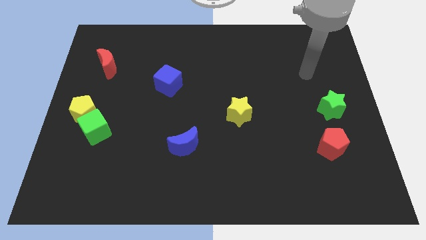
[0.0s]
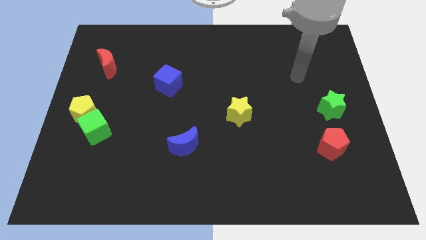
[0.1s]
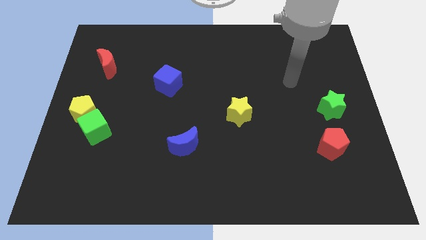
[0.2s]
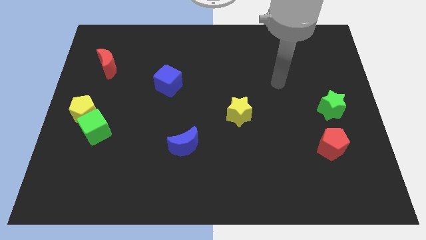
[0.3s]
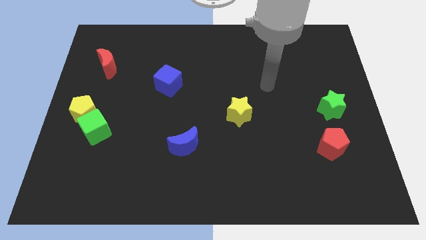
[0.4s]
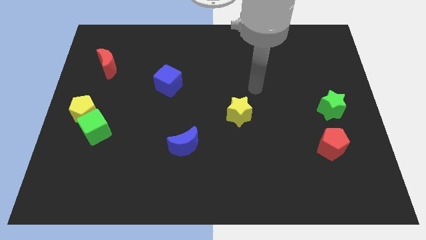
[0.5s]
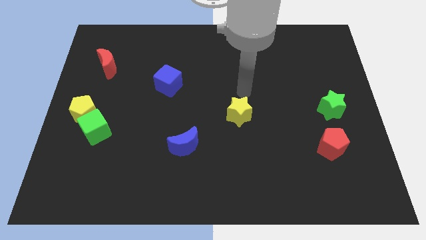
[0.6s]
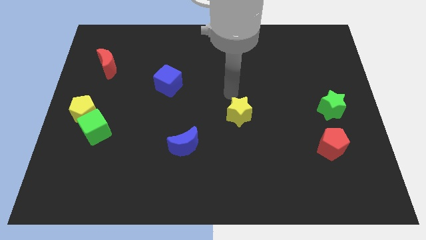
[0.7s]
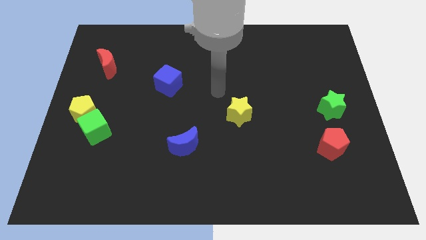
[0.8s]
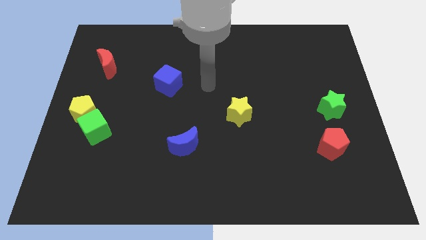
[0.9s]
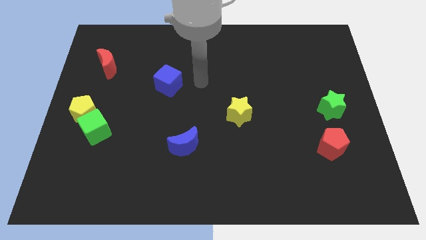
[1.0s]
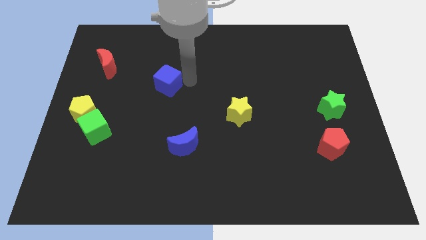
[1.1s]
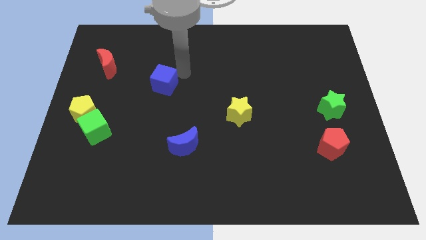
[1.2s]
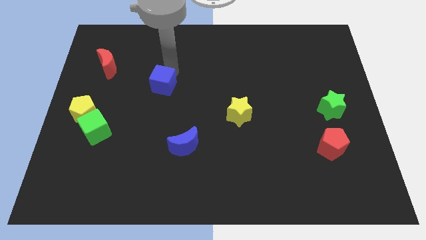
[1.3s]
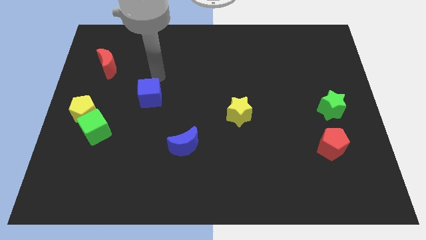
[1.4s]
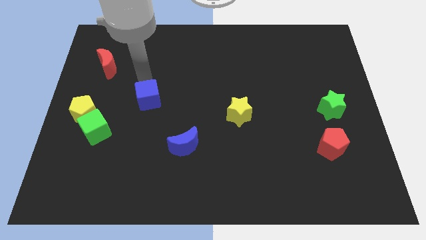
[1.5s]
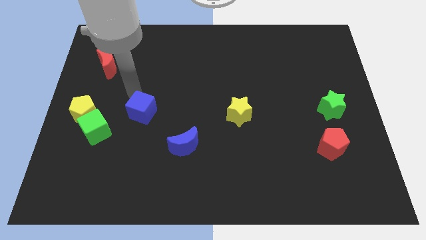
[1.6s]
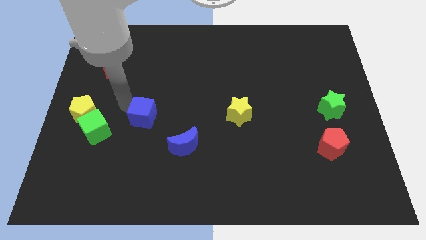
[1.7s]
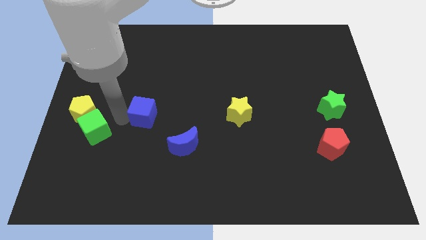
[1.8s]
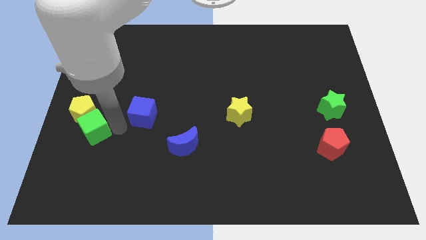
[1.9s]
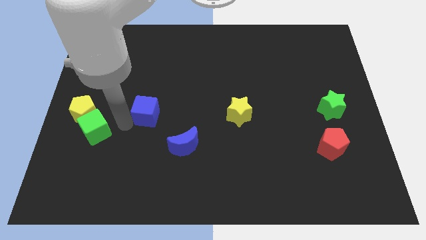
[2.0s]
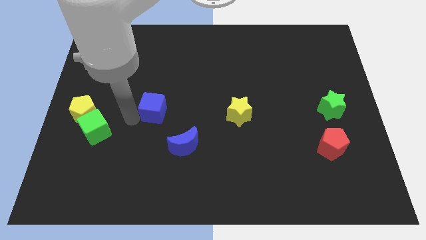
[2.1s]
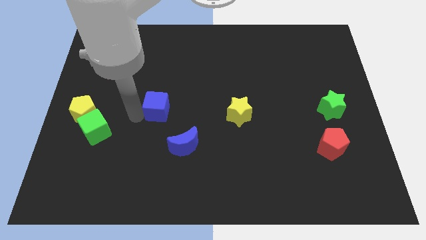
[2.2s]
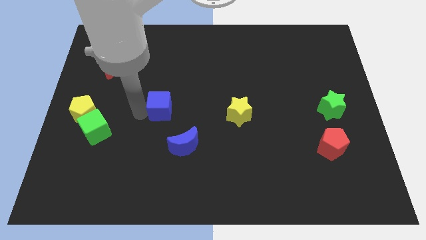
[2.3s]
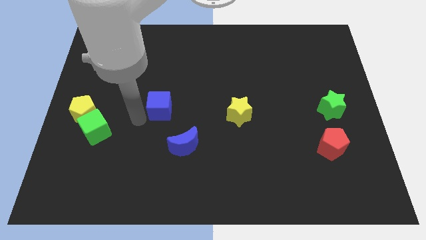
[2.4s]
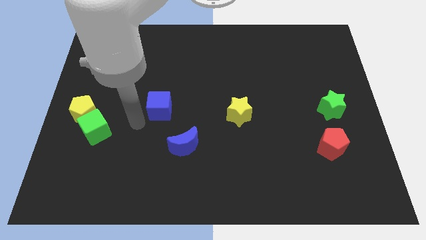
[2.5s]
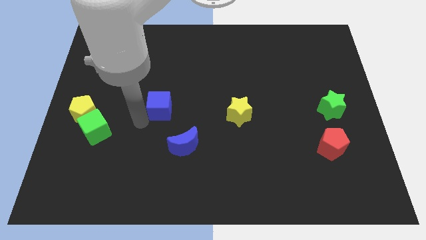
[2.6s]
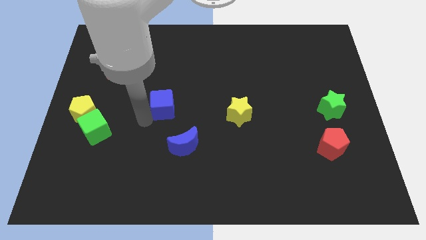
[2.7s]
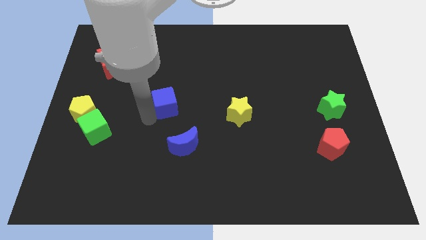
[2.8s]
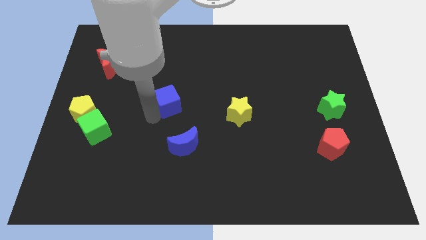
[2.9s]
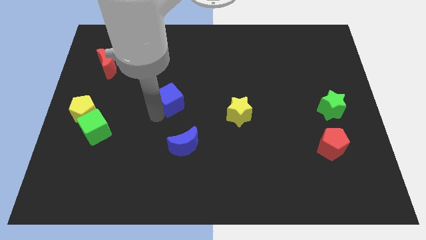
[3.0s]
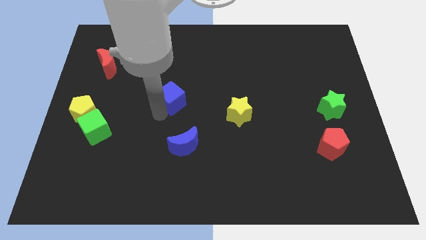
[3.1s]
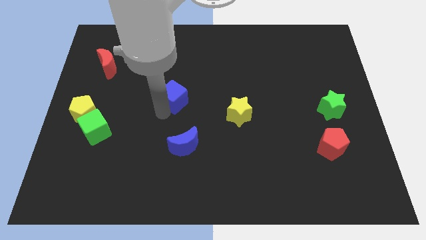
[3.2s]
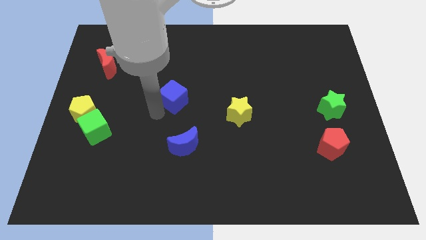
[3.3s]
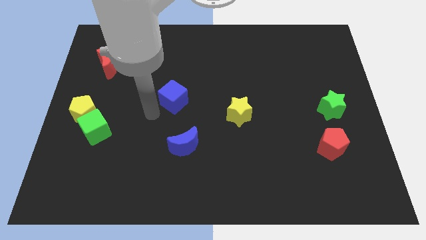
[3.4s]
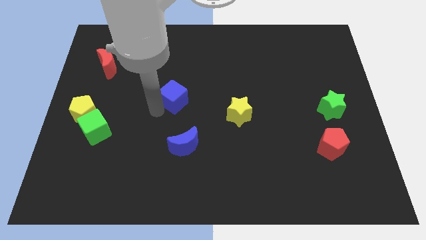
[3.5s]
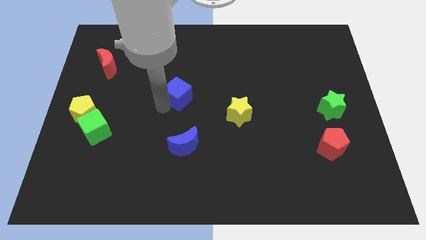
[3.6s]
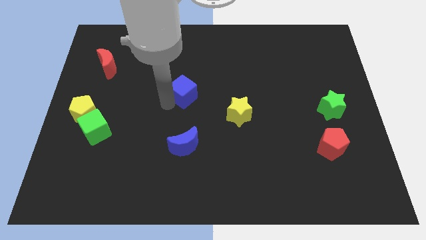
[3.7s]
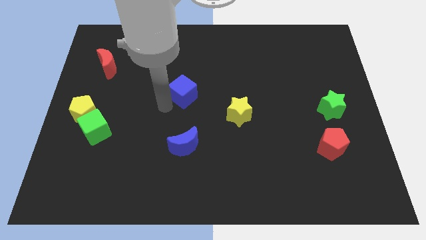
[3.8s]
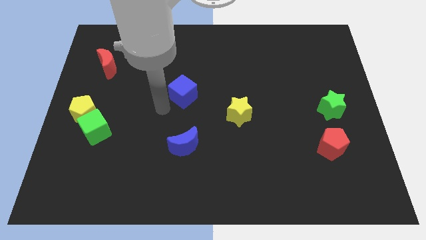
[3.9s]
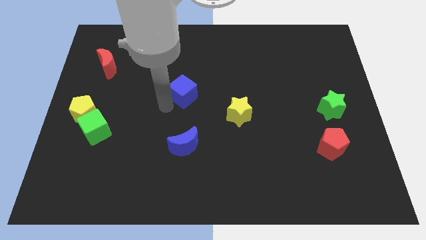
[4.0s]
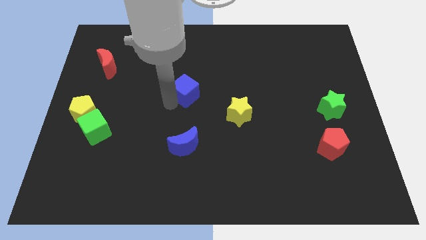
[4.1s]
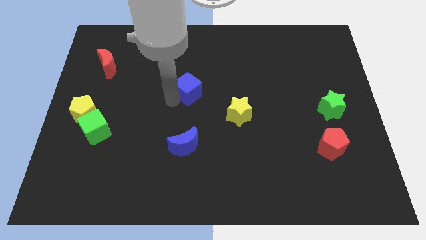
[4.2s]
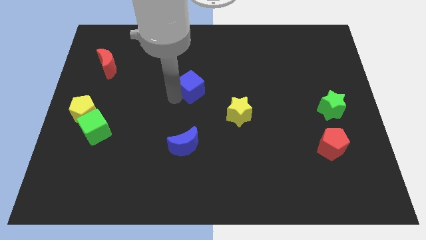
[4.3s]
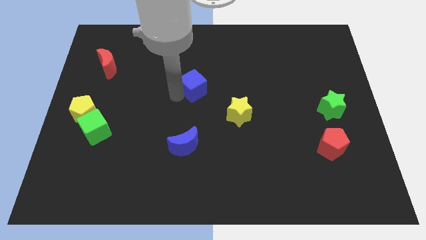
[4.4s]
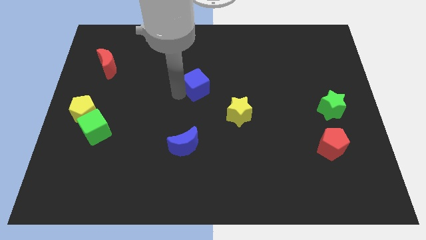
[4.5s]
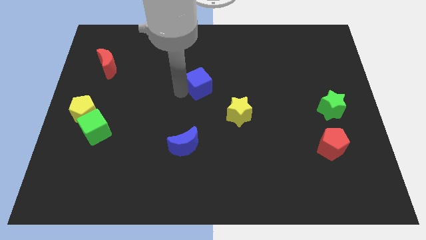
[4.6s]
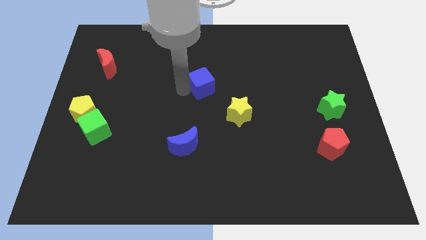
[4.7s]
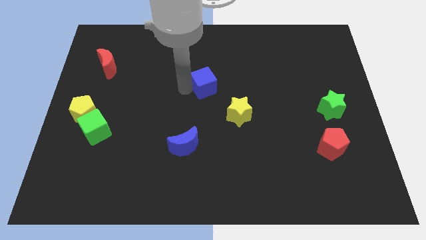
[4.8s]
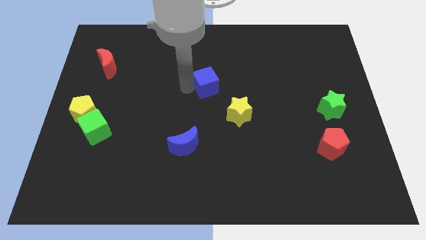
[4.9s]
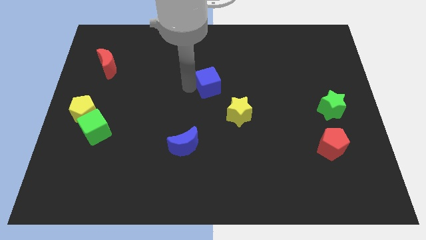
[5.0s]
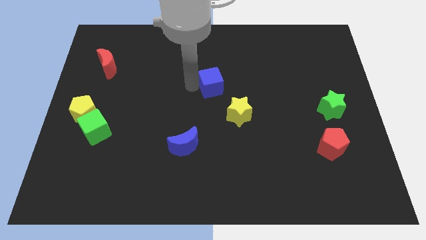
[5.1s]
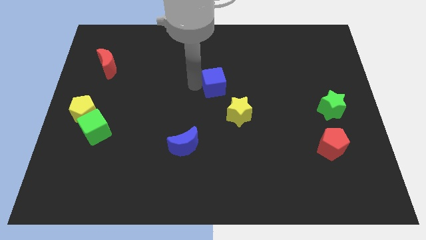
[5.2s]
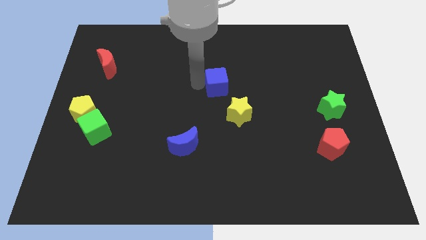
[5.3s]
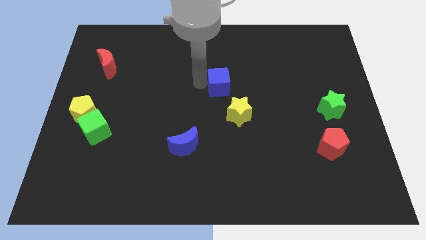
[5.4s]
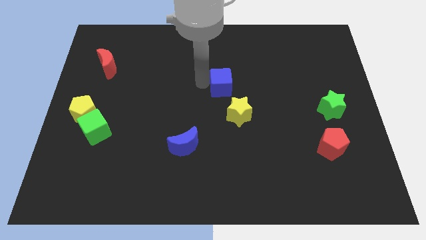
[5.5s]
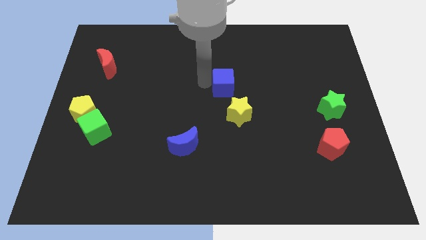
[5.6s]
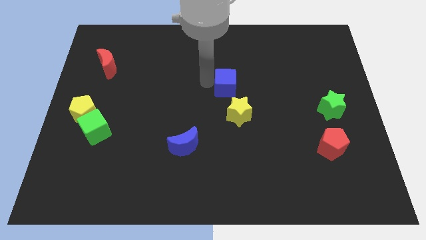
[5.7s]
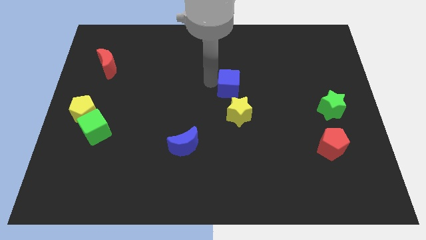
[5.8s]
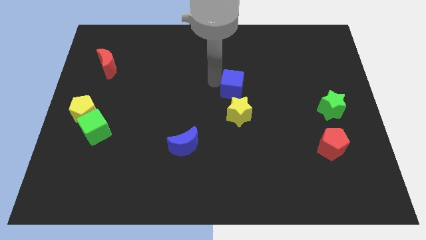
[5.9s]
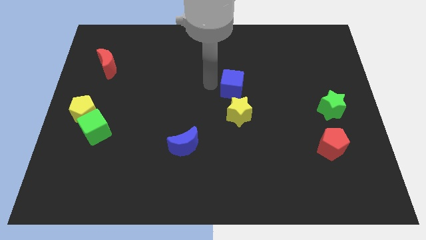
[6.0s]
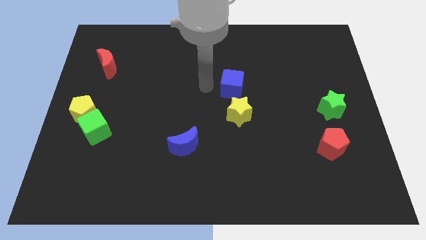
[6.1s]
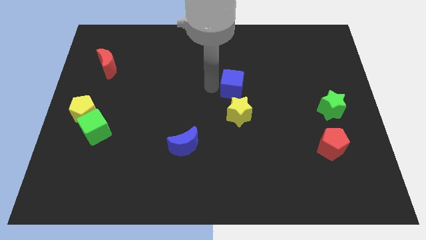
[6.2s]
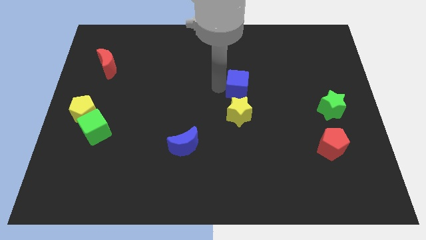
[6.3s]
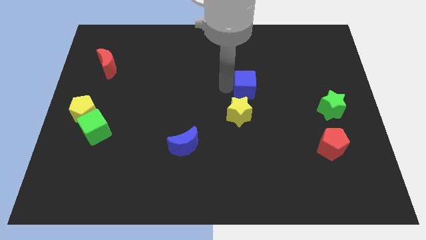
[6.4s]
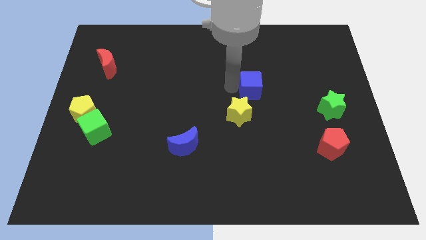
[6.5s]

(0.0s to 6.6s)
push the blue cube right

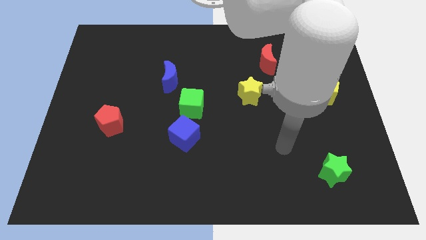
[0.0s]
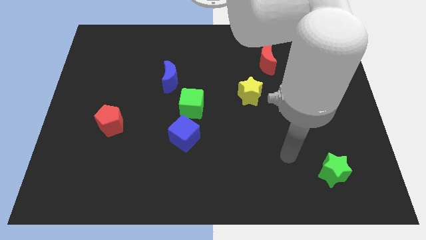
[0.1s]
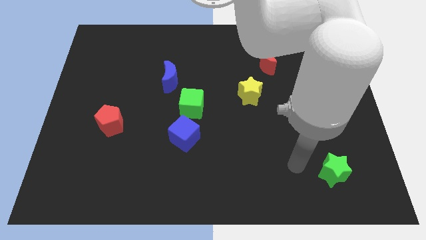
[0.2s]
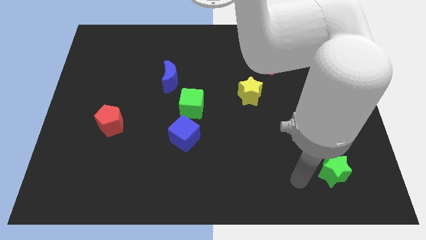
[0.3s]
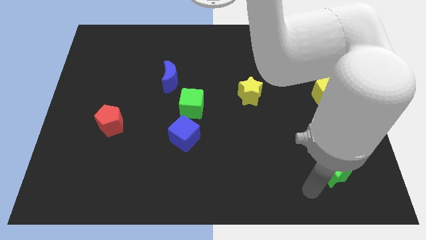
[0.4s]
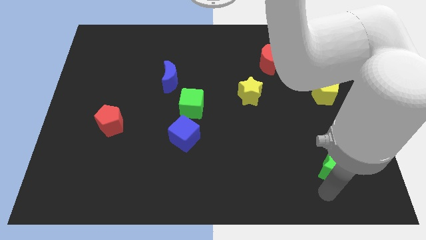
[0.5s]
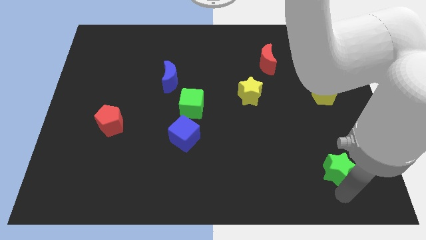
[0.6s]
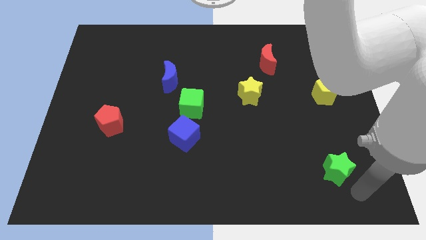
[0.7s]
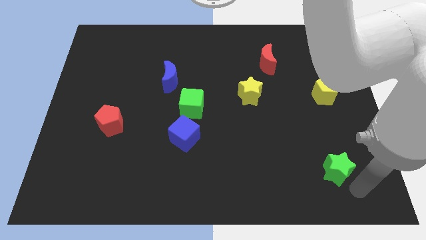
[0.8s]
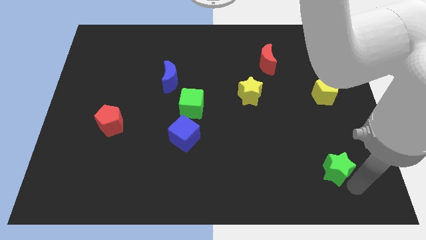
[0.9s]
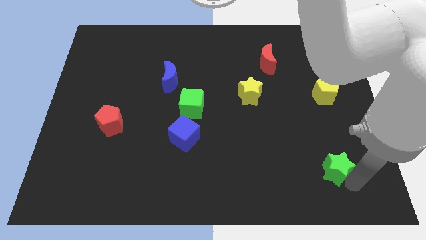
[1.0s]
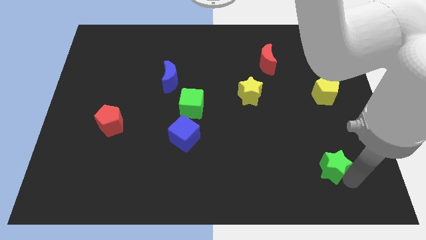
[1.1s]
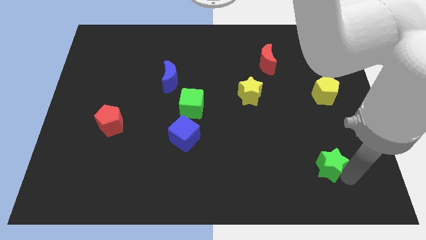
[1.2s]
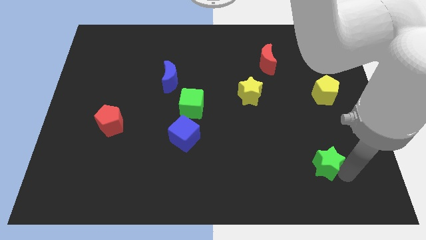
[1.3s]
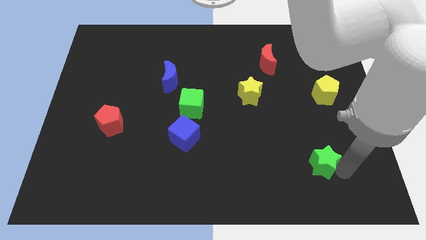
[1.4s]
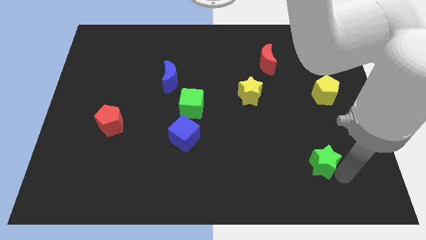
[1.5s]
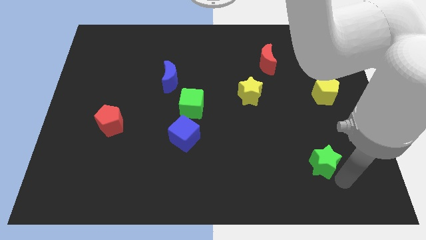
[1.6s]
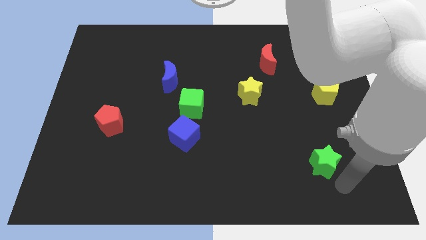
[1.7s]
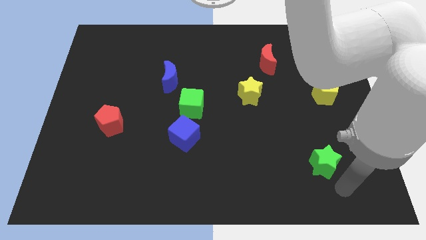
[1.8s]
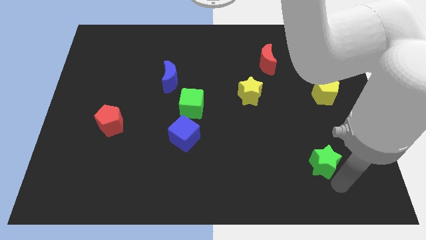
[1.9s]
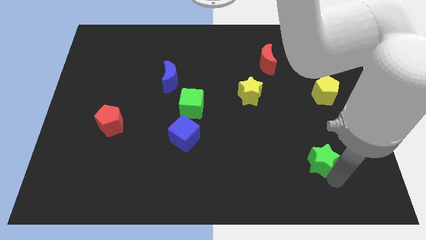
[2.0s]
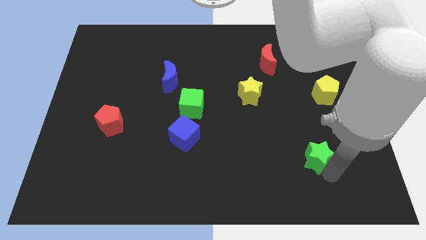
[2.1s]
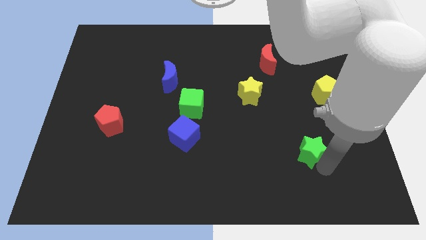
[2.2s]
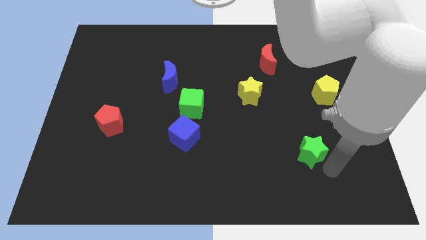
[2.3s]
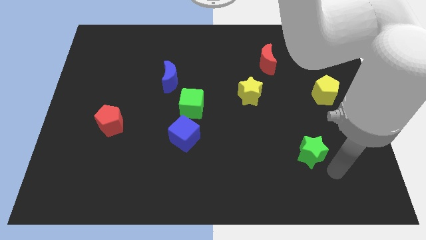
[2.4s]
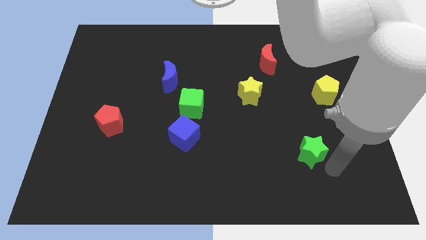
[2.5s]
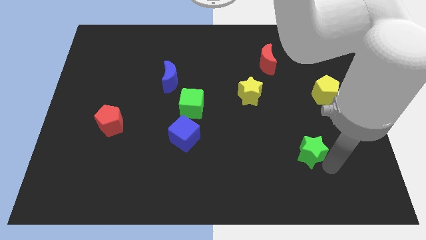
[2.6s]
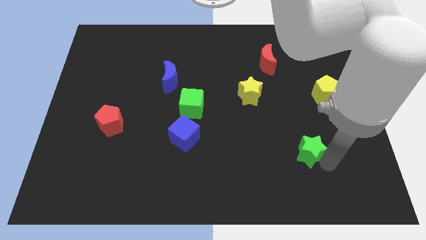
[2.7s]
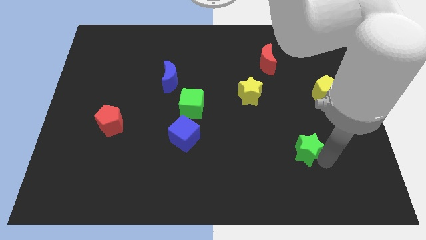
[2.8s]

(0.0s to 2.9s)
move the green star a bit diagonally upwards and to the left
